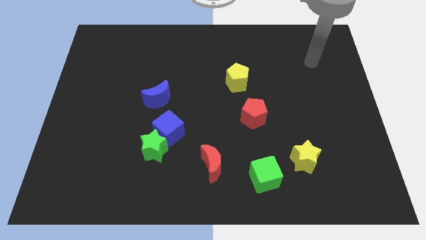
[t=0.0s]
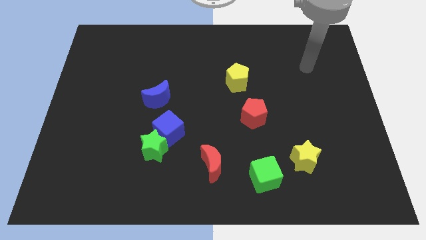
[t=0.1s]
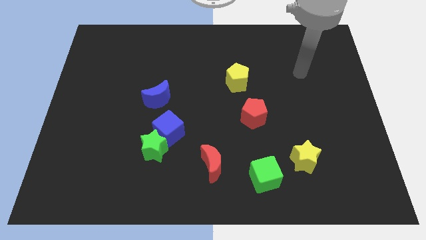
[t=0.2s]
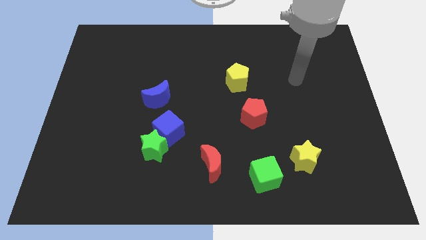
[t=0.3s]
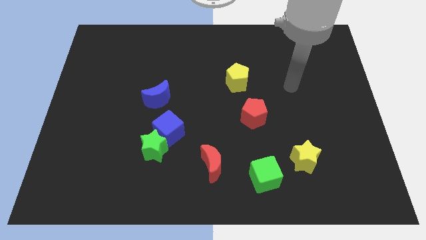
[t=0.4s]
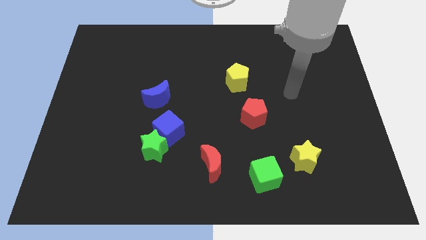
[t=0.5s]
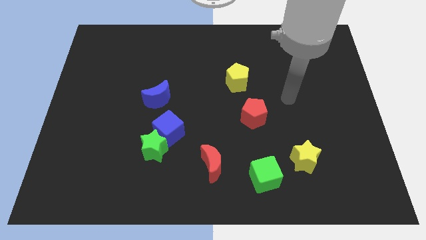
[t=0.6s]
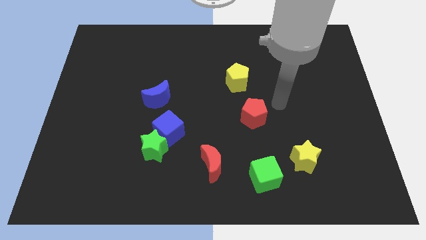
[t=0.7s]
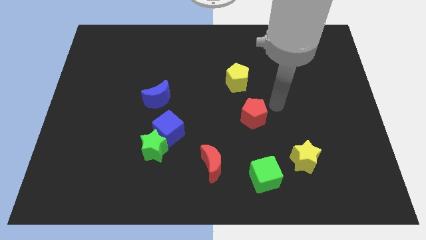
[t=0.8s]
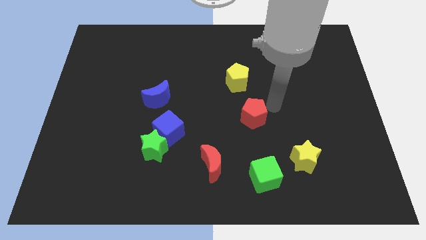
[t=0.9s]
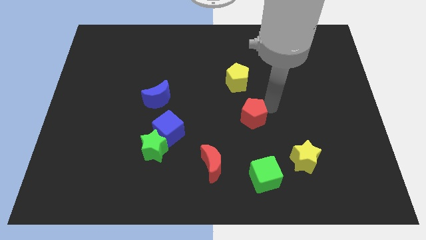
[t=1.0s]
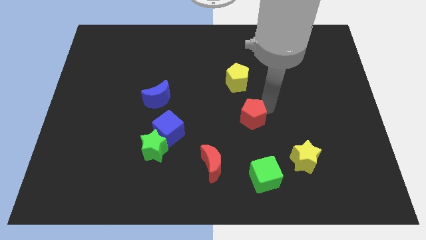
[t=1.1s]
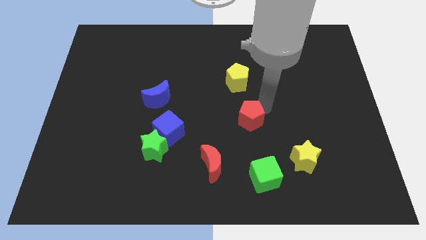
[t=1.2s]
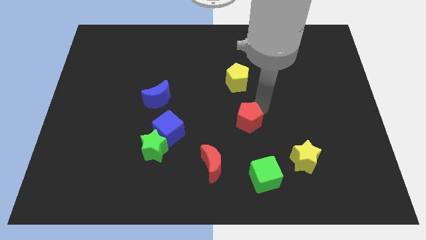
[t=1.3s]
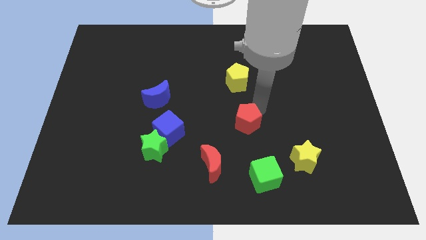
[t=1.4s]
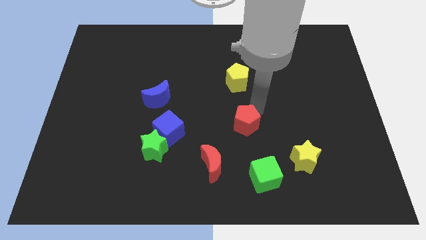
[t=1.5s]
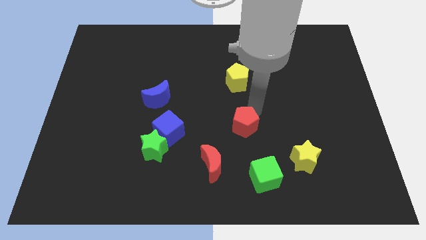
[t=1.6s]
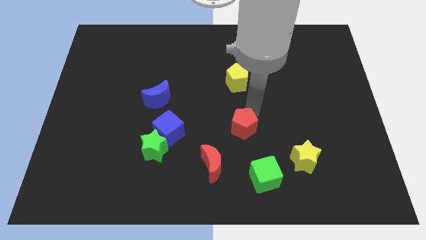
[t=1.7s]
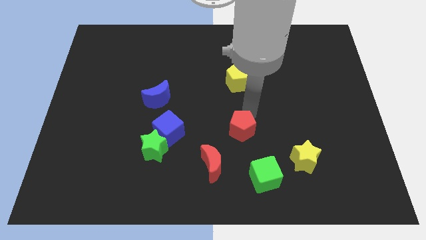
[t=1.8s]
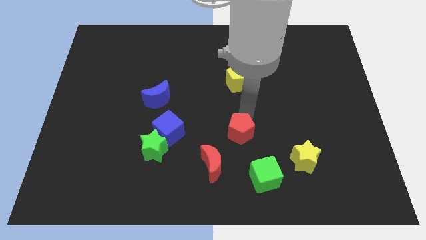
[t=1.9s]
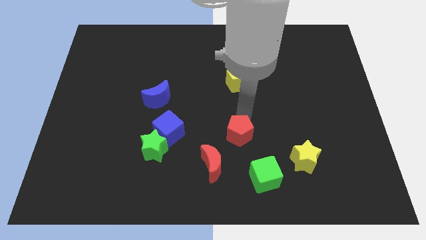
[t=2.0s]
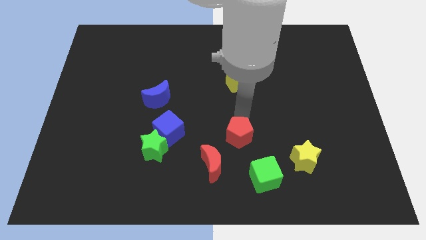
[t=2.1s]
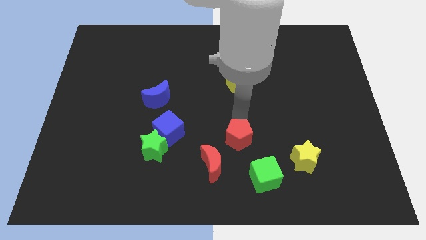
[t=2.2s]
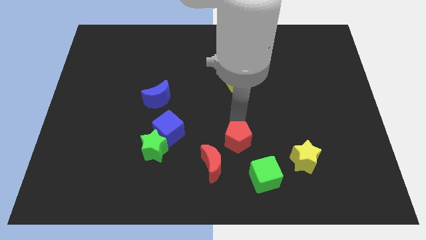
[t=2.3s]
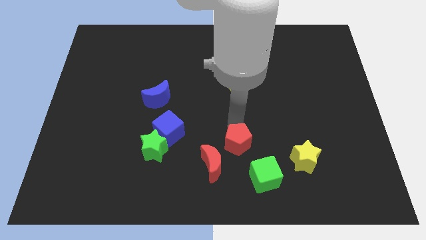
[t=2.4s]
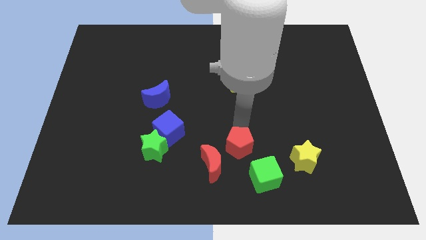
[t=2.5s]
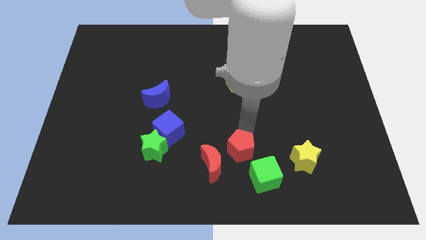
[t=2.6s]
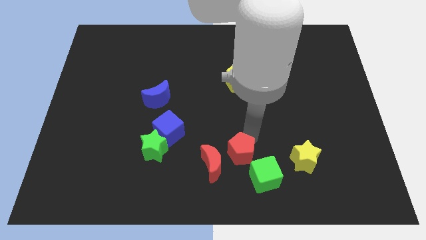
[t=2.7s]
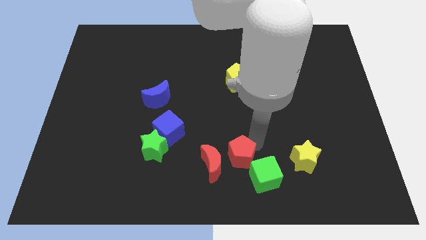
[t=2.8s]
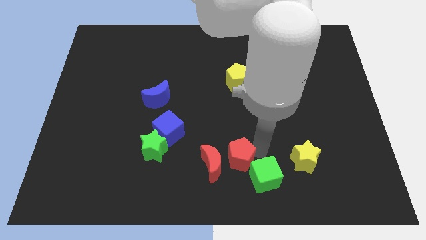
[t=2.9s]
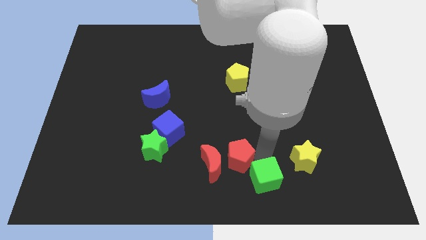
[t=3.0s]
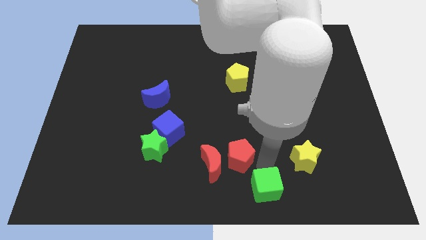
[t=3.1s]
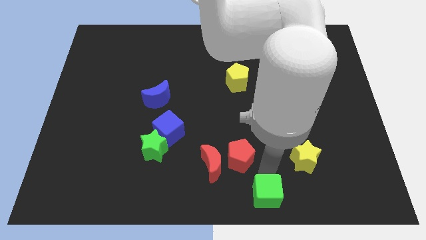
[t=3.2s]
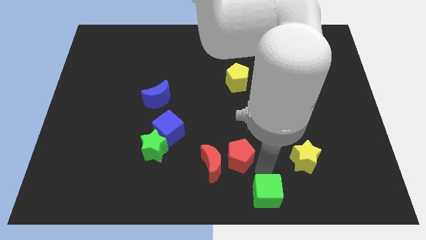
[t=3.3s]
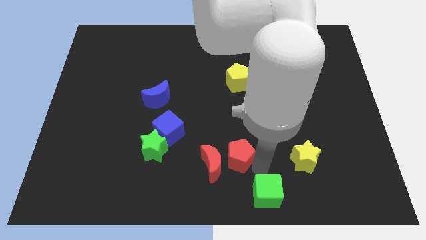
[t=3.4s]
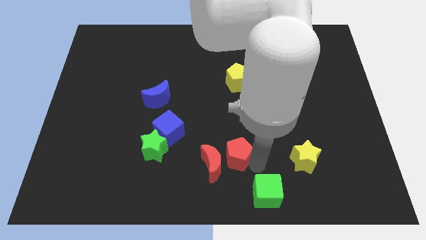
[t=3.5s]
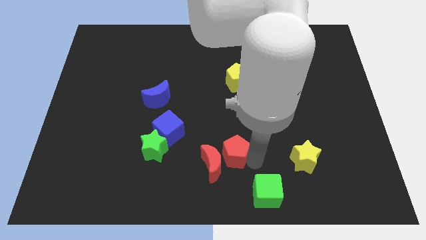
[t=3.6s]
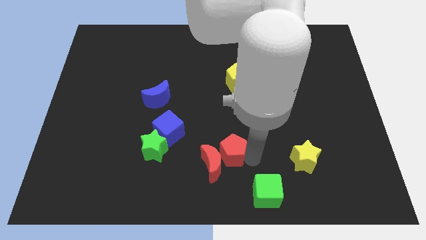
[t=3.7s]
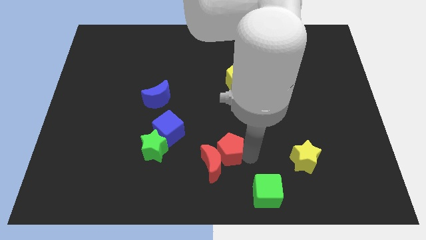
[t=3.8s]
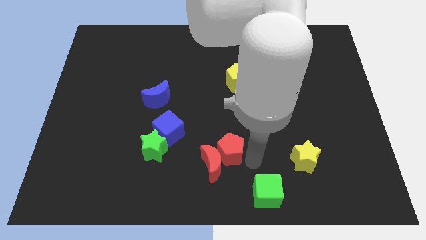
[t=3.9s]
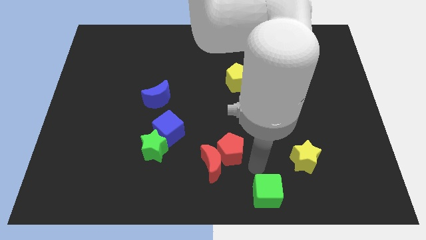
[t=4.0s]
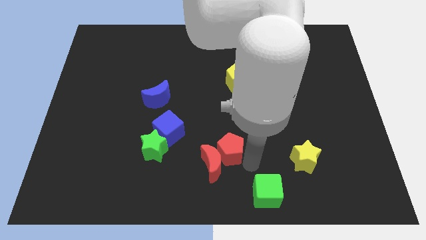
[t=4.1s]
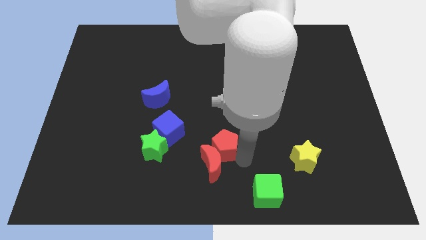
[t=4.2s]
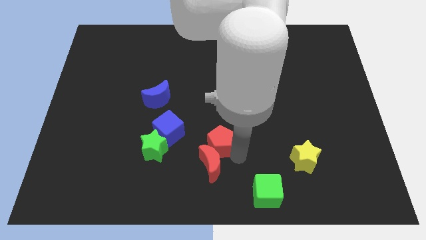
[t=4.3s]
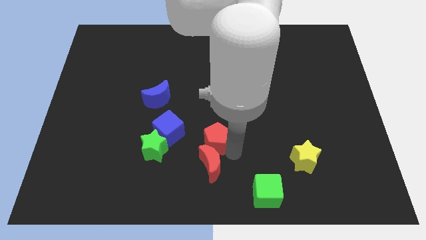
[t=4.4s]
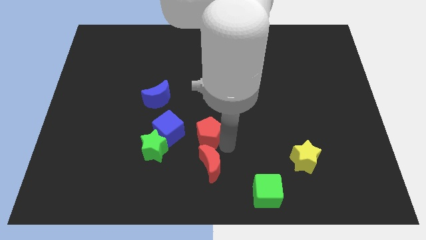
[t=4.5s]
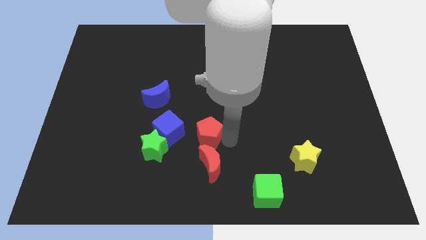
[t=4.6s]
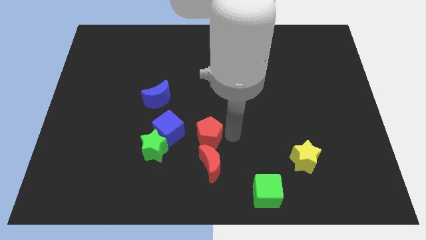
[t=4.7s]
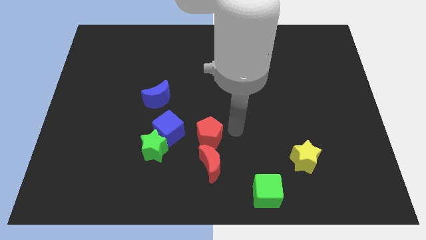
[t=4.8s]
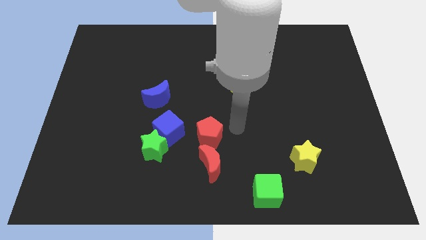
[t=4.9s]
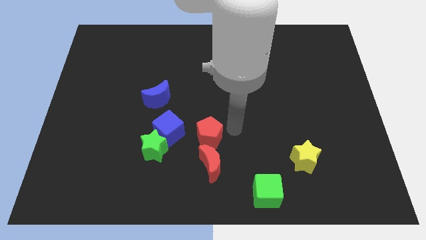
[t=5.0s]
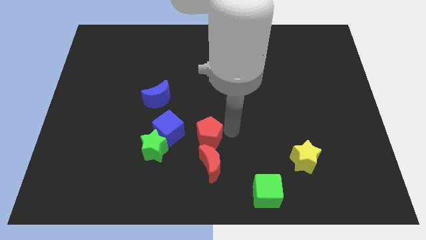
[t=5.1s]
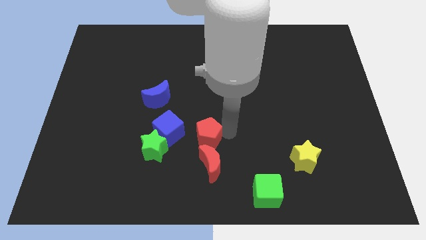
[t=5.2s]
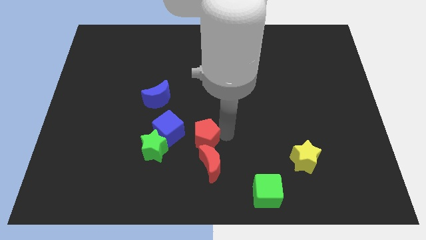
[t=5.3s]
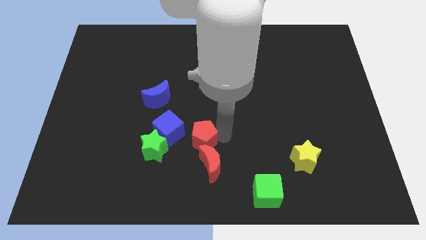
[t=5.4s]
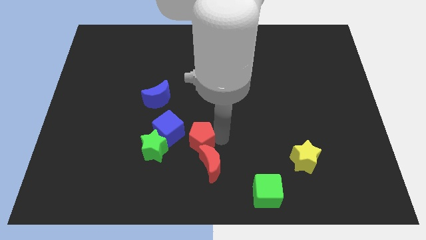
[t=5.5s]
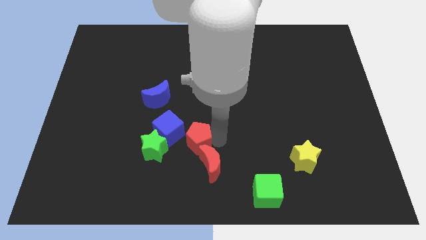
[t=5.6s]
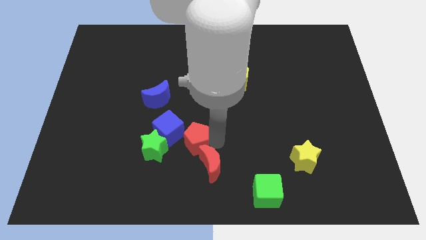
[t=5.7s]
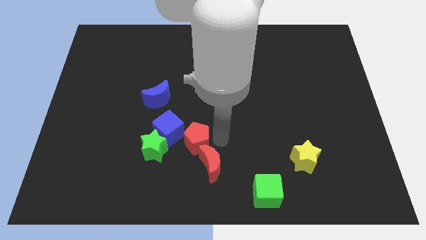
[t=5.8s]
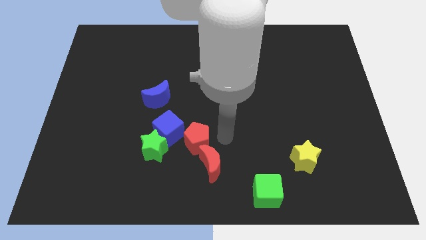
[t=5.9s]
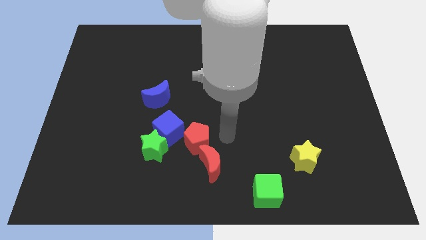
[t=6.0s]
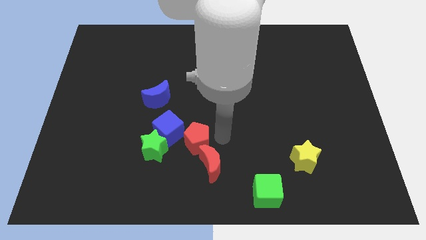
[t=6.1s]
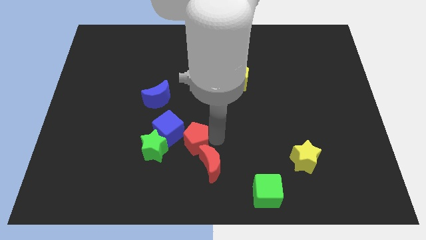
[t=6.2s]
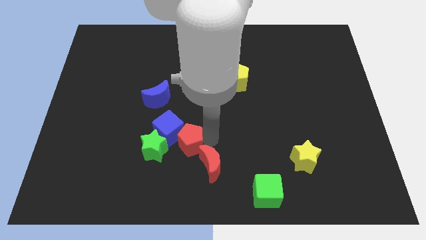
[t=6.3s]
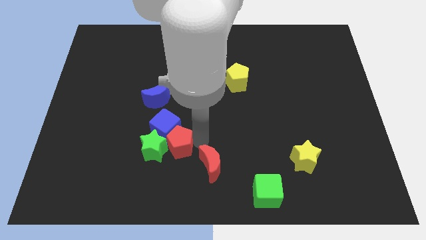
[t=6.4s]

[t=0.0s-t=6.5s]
slide the red pentagon towards the green star
